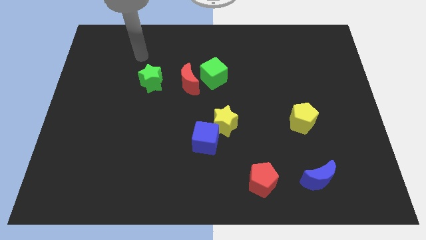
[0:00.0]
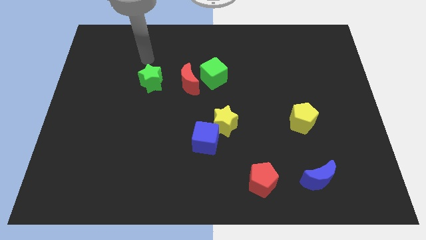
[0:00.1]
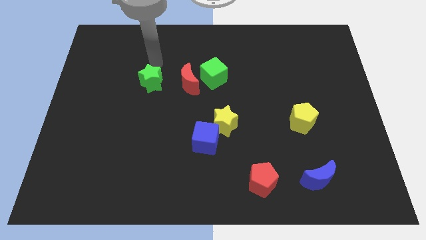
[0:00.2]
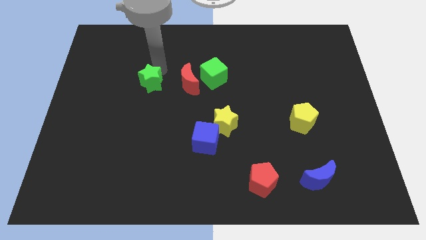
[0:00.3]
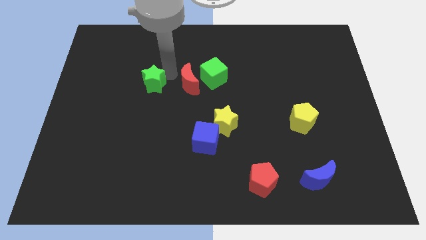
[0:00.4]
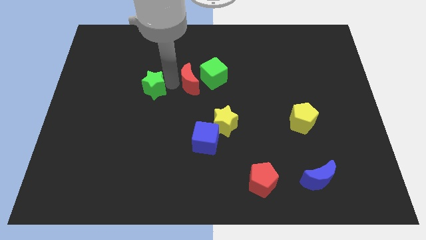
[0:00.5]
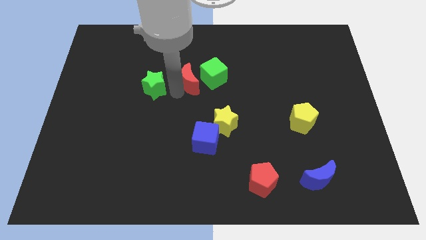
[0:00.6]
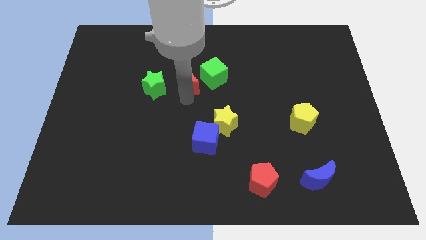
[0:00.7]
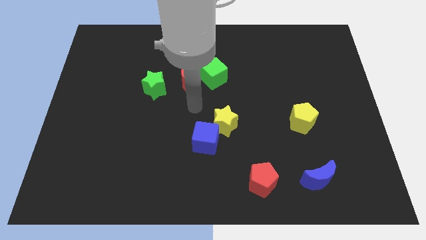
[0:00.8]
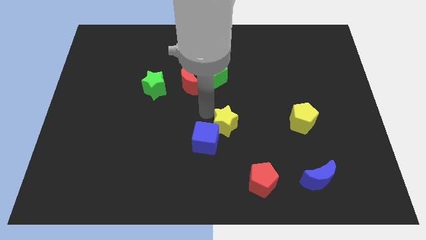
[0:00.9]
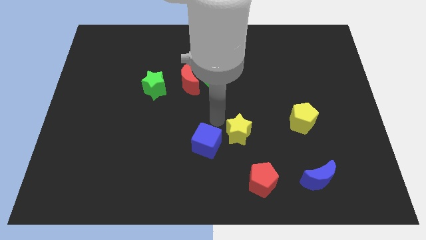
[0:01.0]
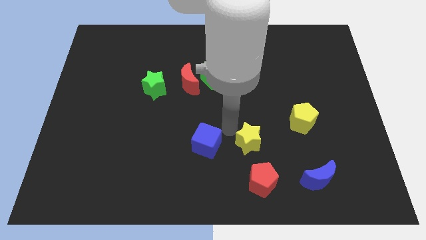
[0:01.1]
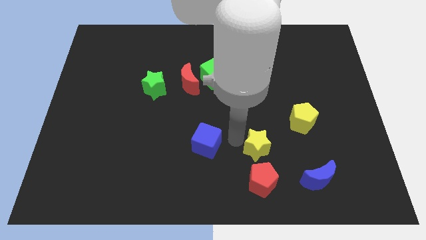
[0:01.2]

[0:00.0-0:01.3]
separate the blue cube from the yellow star

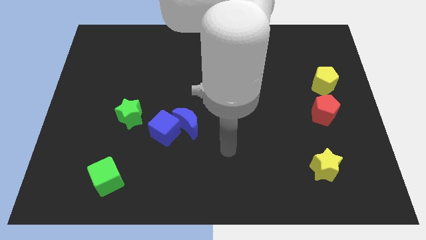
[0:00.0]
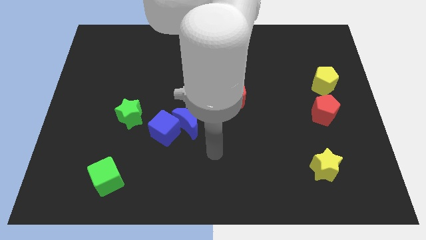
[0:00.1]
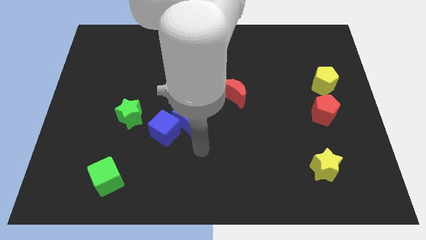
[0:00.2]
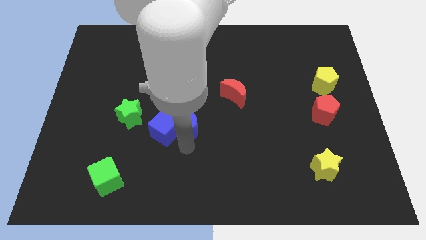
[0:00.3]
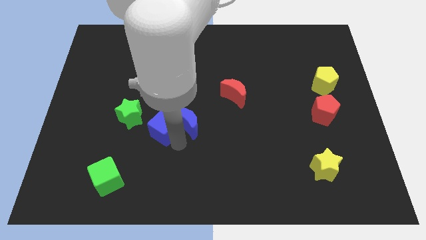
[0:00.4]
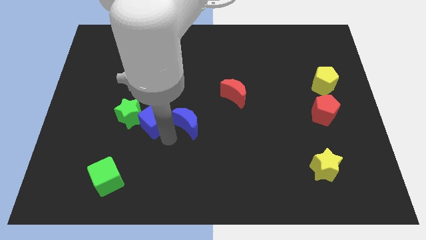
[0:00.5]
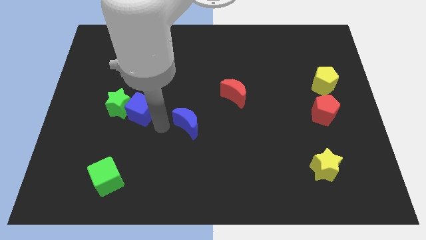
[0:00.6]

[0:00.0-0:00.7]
separate the blue moon from the blue cube

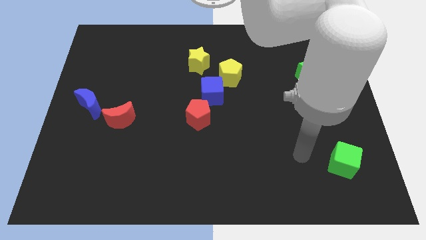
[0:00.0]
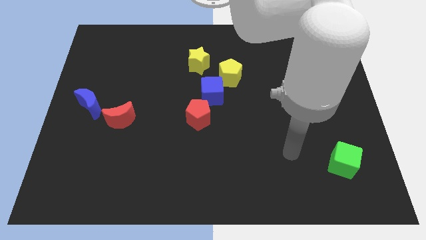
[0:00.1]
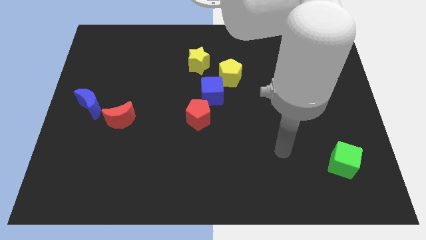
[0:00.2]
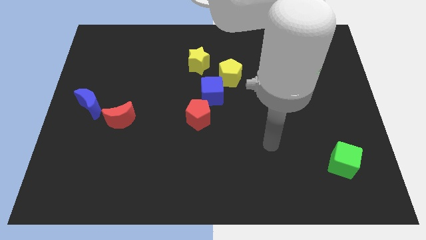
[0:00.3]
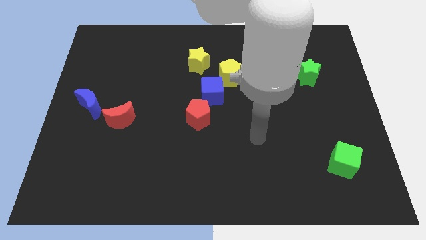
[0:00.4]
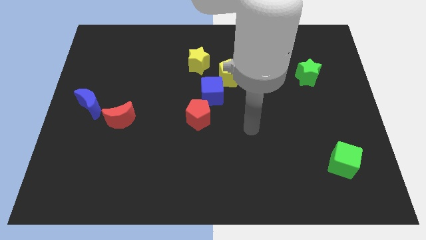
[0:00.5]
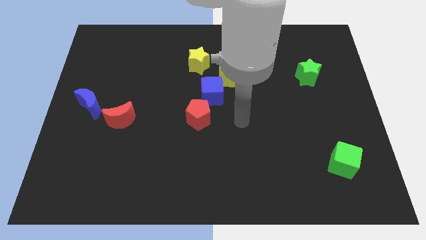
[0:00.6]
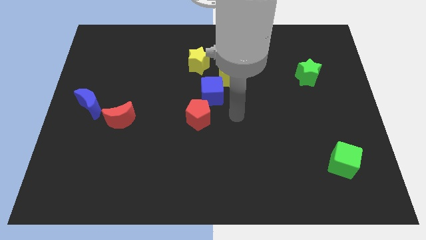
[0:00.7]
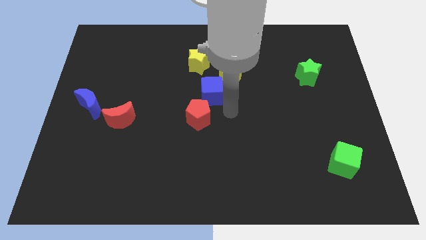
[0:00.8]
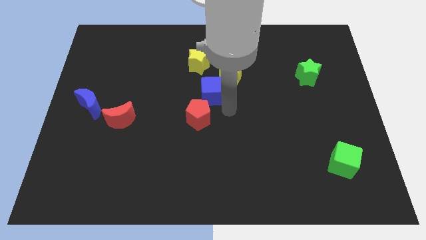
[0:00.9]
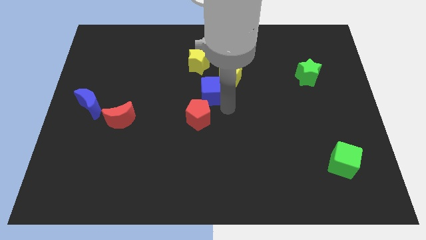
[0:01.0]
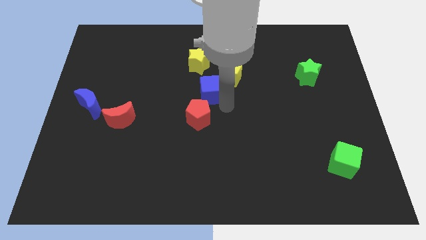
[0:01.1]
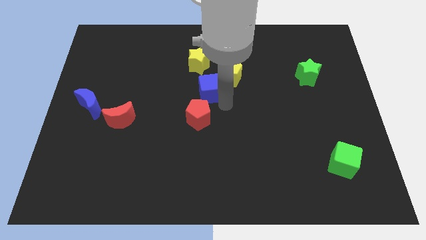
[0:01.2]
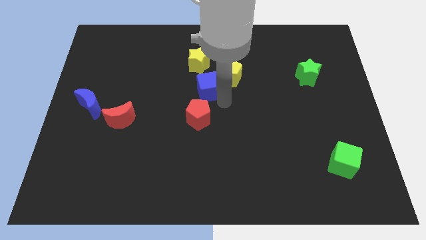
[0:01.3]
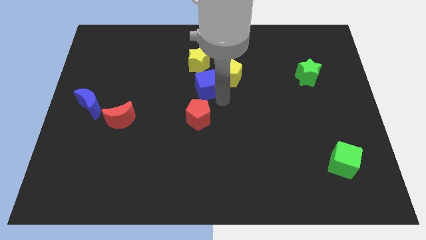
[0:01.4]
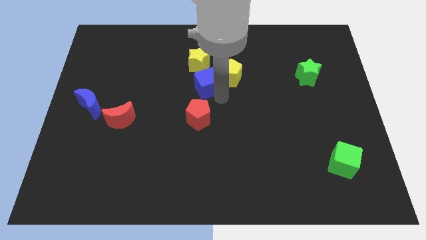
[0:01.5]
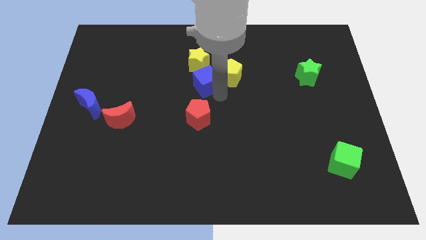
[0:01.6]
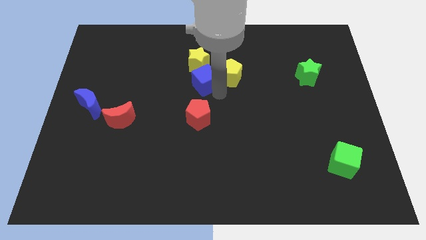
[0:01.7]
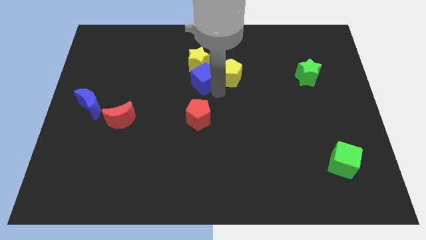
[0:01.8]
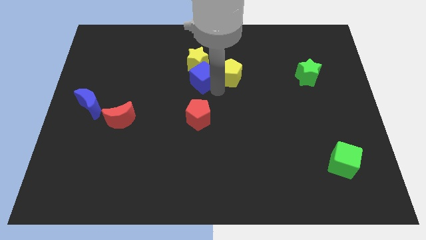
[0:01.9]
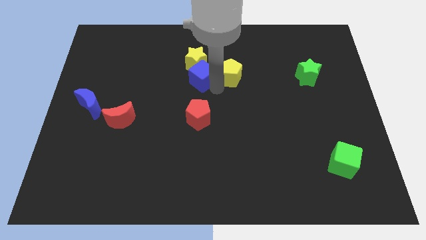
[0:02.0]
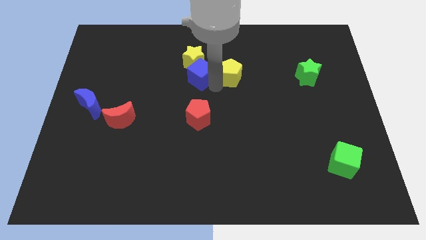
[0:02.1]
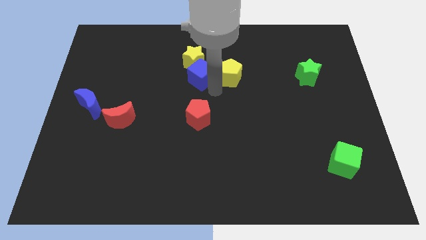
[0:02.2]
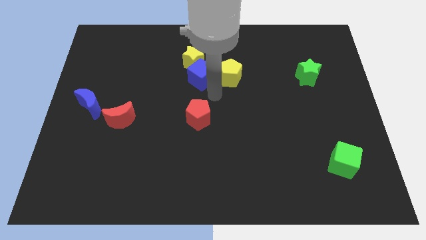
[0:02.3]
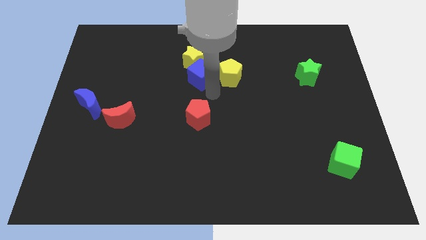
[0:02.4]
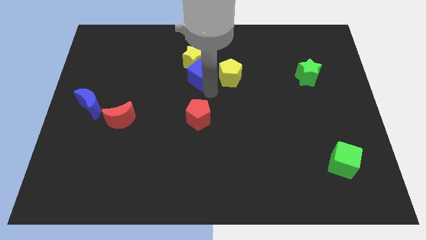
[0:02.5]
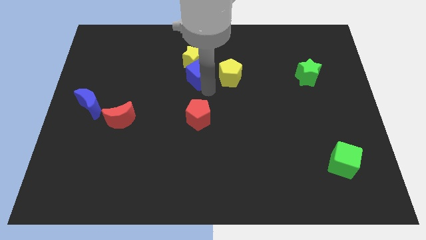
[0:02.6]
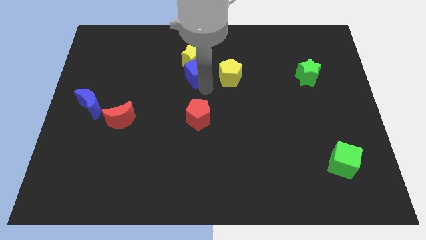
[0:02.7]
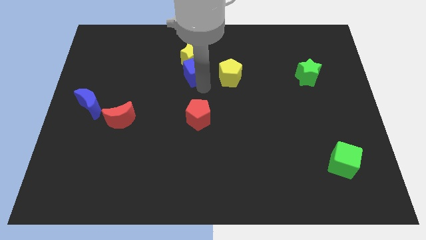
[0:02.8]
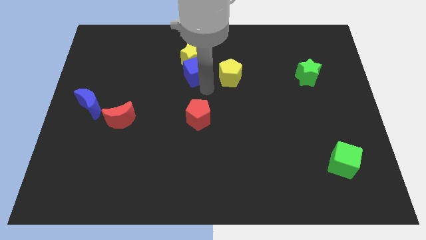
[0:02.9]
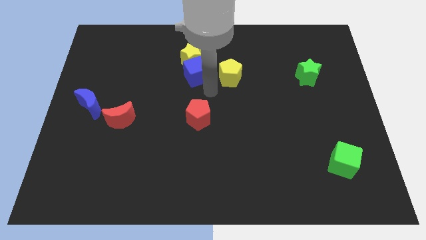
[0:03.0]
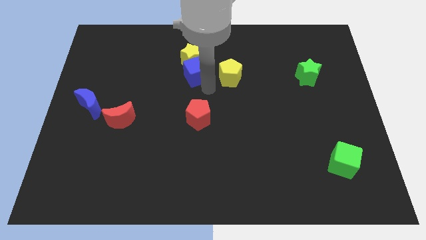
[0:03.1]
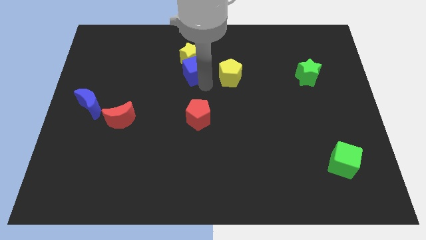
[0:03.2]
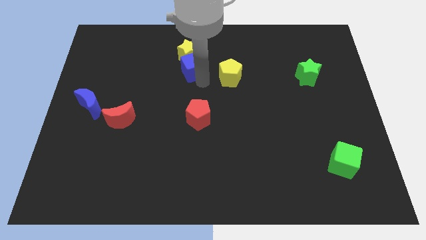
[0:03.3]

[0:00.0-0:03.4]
move the blue cube away from the yellow pentagon and red pentagon

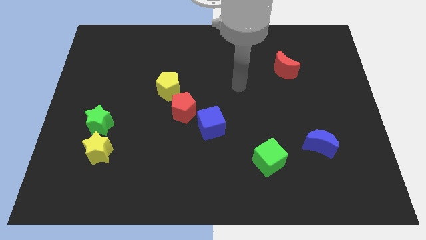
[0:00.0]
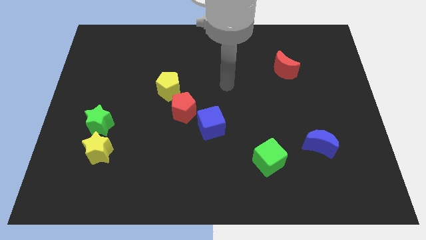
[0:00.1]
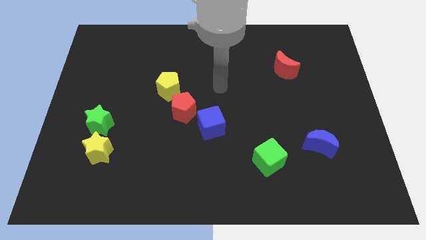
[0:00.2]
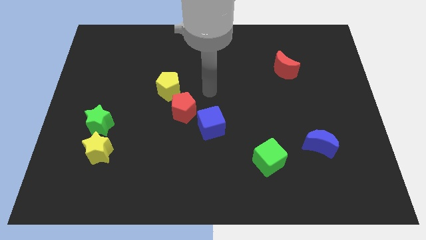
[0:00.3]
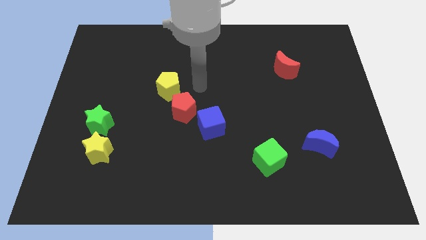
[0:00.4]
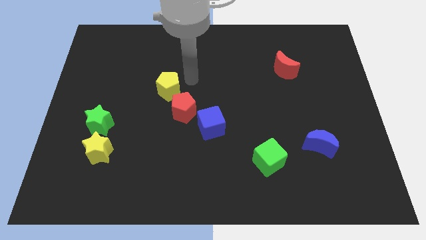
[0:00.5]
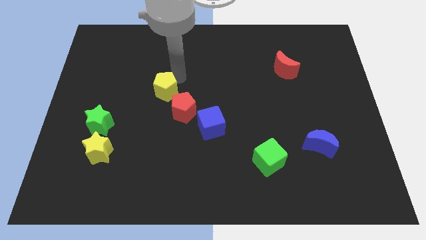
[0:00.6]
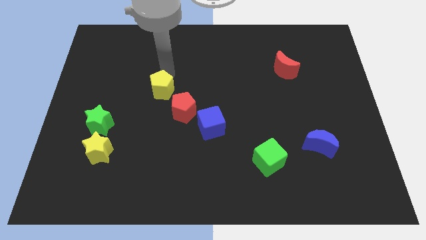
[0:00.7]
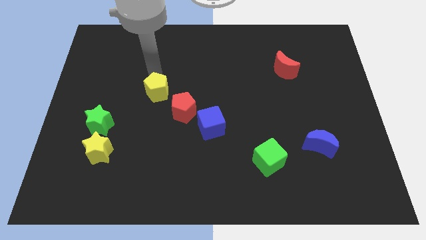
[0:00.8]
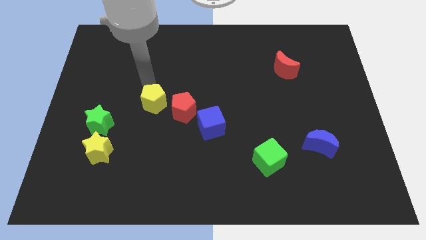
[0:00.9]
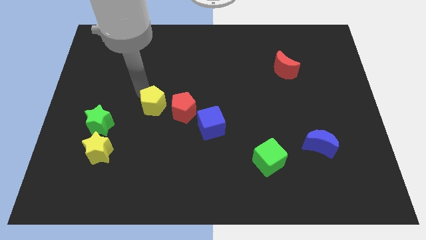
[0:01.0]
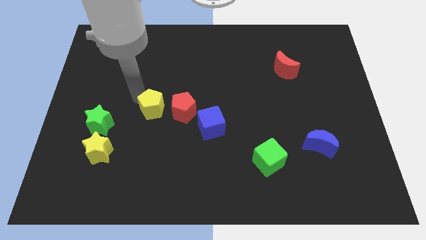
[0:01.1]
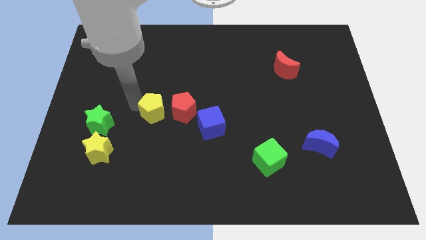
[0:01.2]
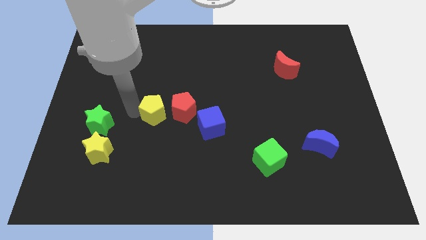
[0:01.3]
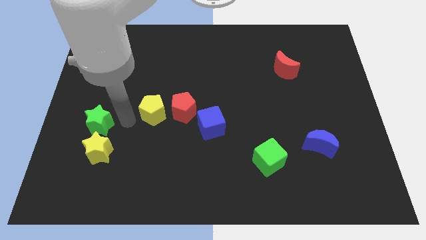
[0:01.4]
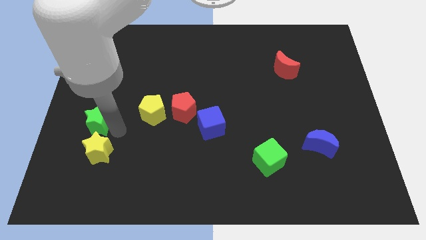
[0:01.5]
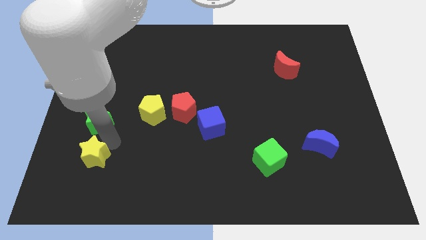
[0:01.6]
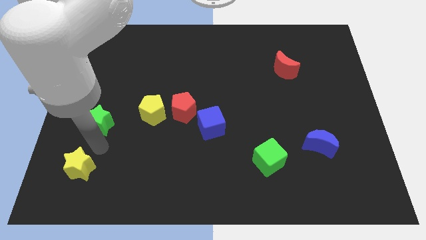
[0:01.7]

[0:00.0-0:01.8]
separate the green star from the yellow star

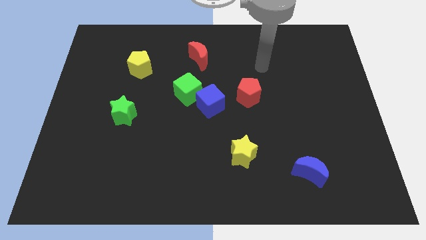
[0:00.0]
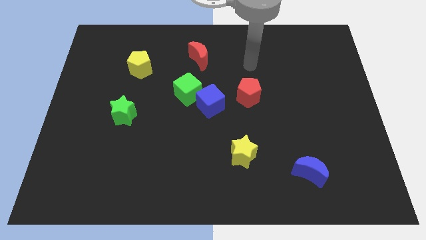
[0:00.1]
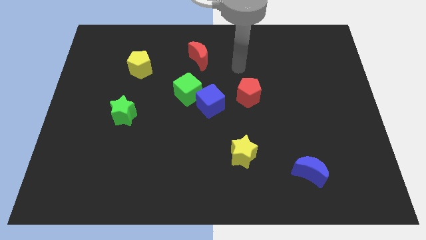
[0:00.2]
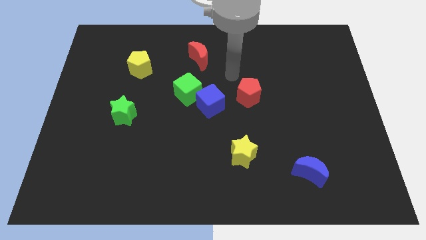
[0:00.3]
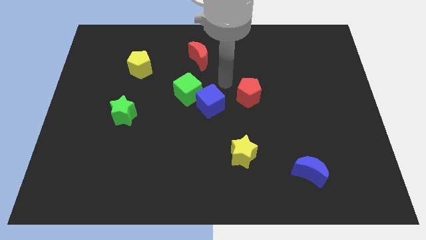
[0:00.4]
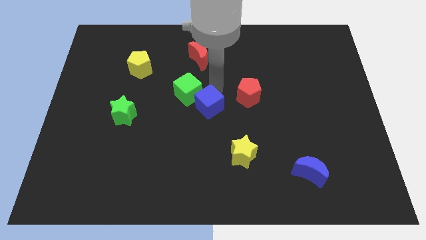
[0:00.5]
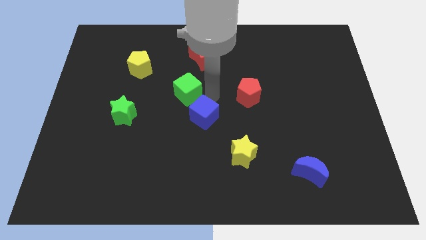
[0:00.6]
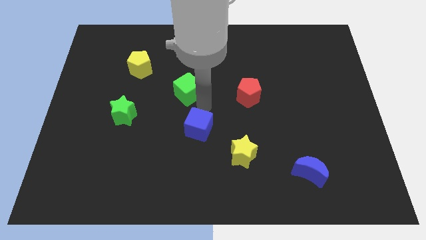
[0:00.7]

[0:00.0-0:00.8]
separate the green cube from the blue cube

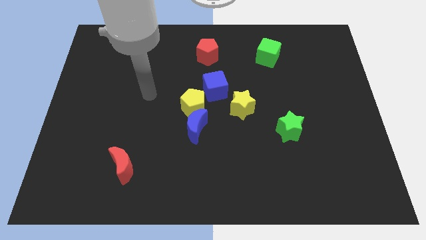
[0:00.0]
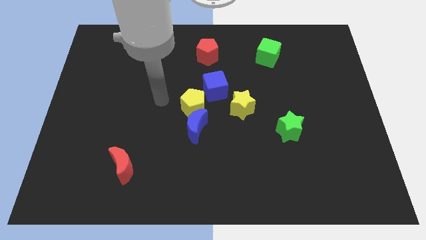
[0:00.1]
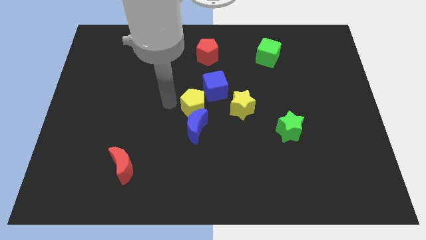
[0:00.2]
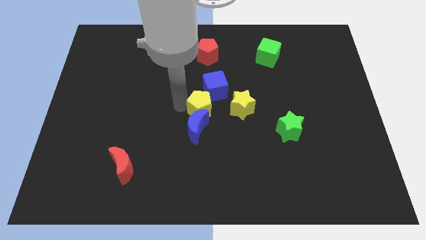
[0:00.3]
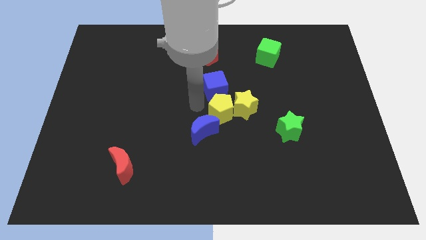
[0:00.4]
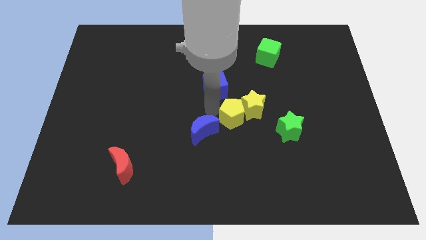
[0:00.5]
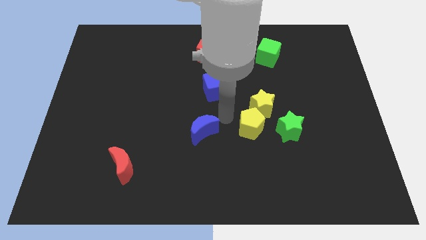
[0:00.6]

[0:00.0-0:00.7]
pull the blue moon apart from the yellow pentagon

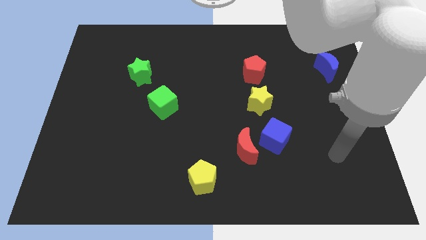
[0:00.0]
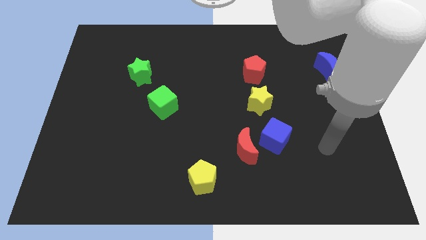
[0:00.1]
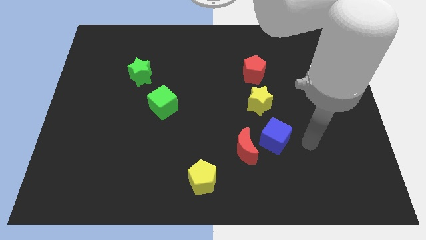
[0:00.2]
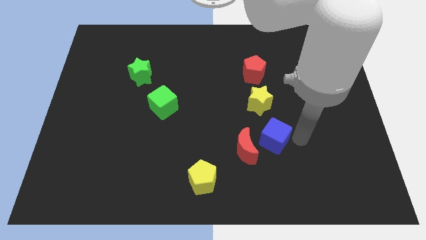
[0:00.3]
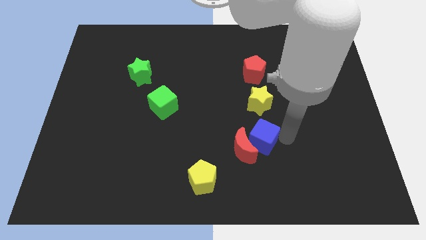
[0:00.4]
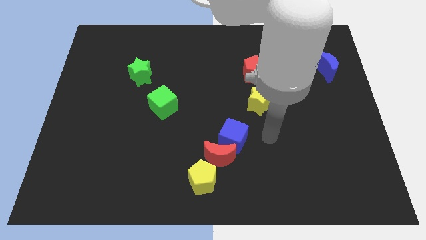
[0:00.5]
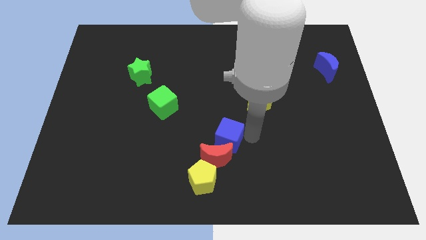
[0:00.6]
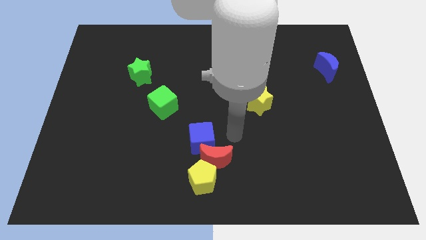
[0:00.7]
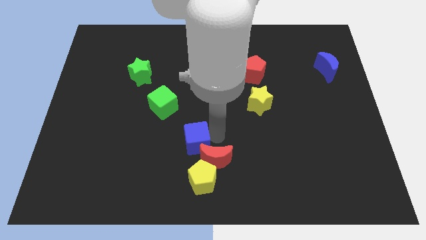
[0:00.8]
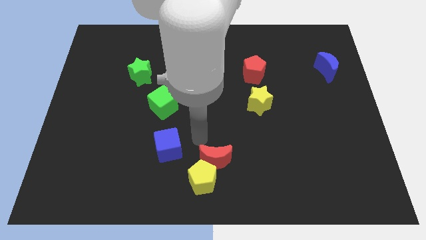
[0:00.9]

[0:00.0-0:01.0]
separate the red moon from the blue cube
